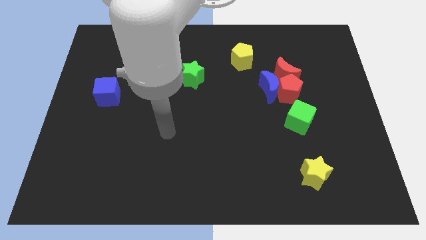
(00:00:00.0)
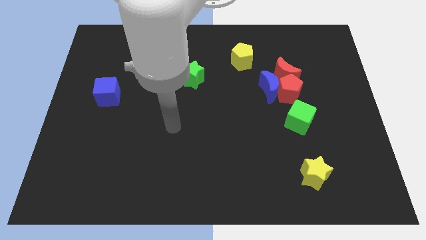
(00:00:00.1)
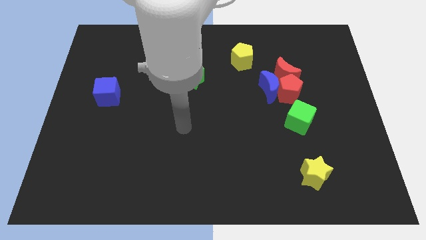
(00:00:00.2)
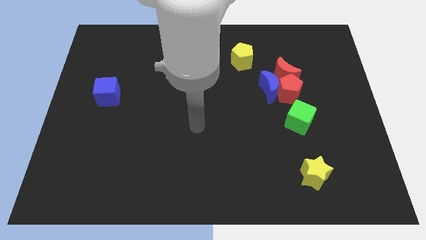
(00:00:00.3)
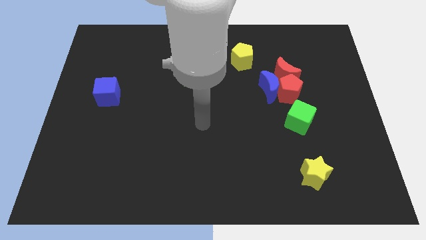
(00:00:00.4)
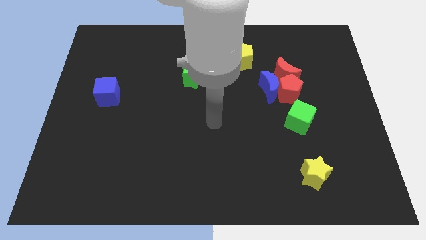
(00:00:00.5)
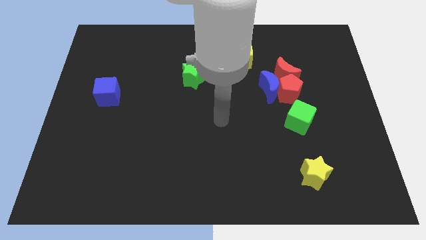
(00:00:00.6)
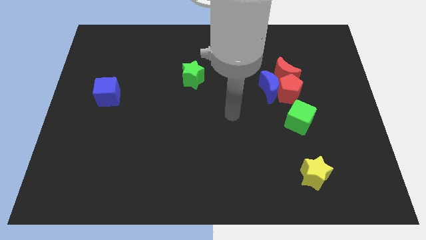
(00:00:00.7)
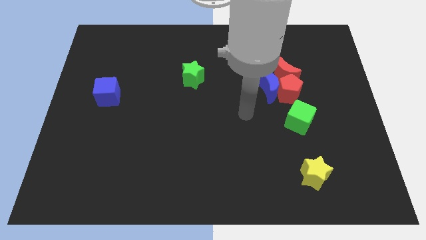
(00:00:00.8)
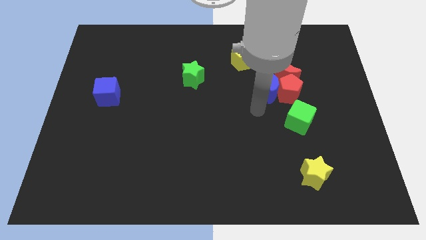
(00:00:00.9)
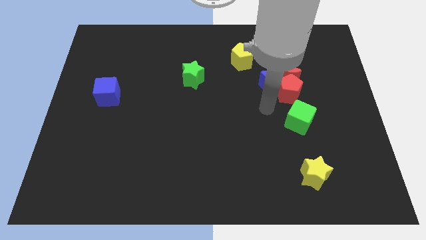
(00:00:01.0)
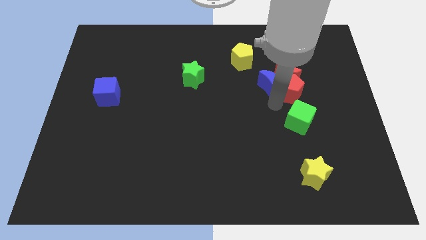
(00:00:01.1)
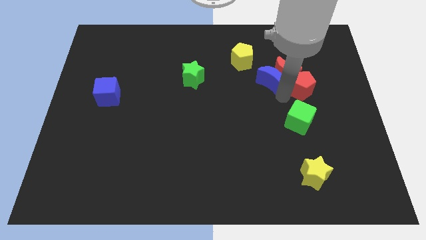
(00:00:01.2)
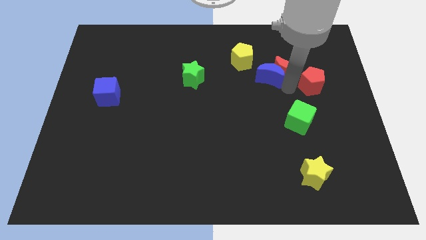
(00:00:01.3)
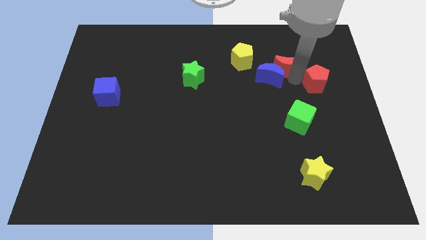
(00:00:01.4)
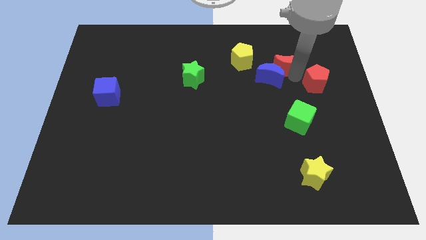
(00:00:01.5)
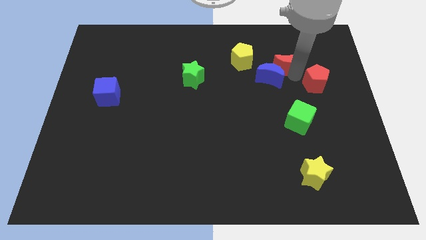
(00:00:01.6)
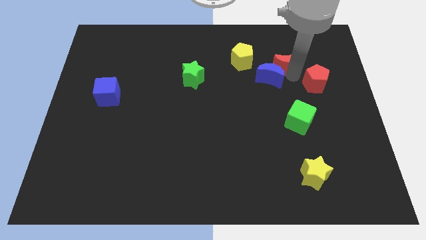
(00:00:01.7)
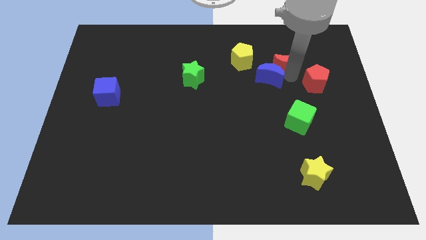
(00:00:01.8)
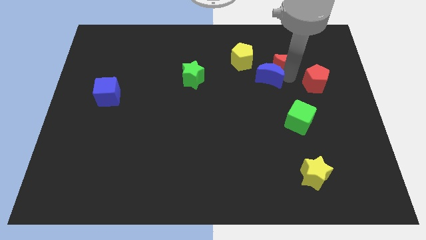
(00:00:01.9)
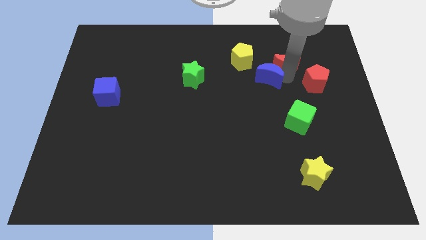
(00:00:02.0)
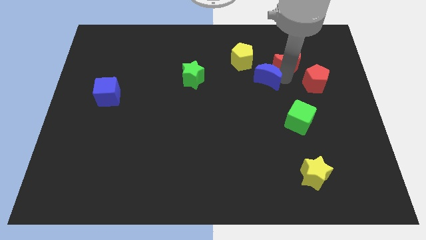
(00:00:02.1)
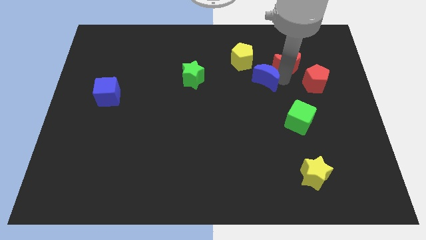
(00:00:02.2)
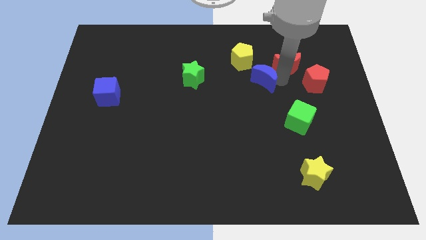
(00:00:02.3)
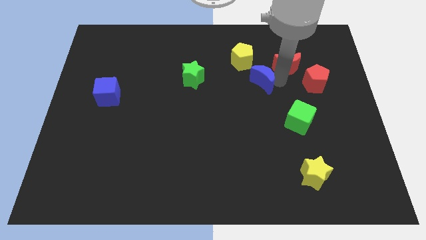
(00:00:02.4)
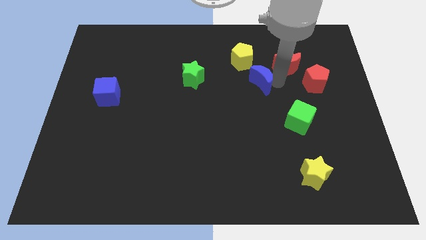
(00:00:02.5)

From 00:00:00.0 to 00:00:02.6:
pull the blue moon apart from the red pentagon and red moon

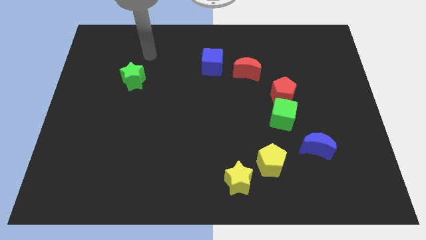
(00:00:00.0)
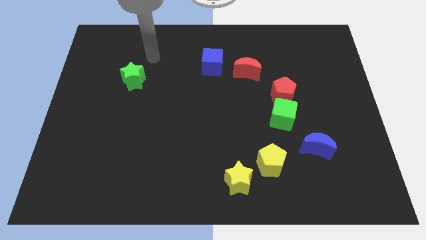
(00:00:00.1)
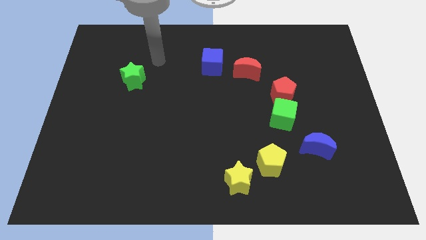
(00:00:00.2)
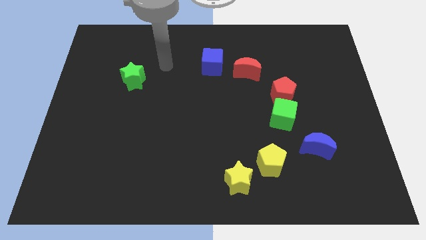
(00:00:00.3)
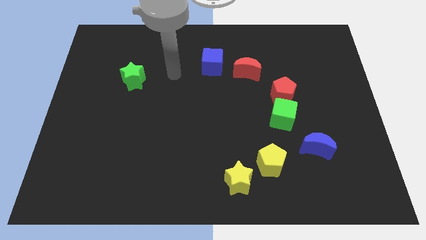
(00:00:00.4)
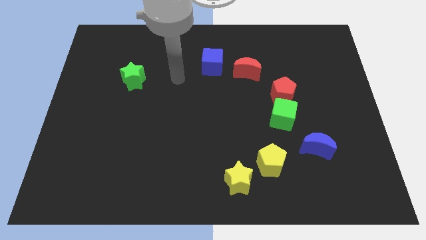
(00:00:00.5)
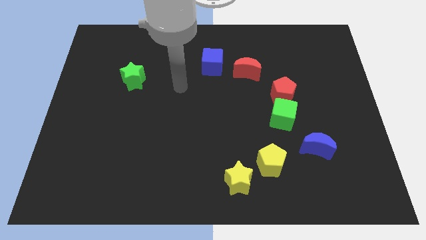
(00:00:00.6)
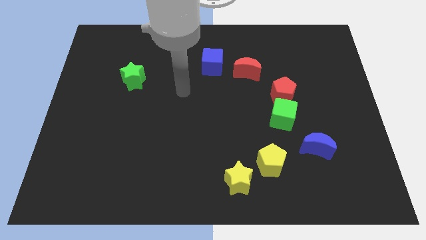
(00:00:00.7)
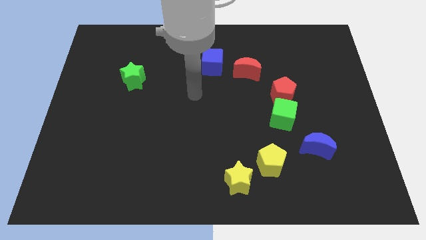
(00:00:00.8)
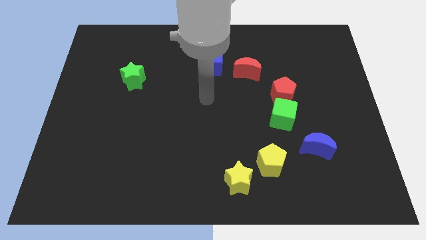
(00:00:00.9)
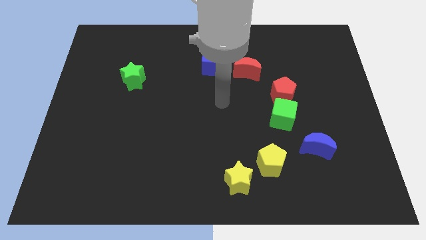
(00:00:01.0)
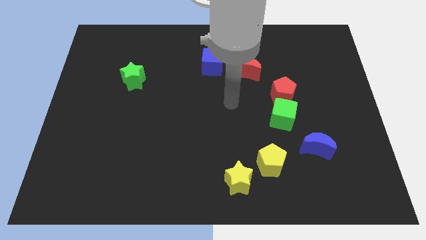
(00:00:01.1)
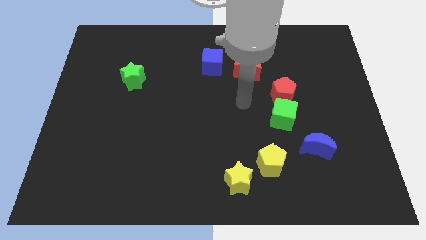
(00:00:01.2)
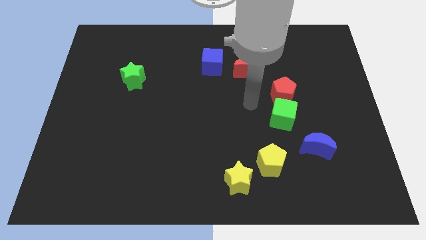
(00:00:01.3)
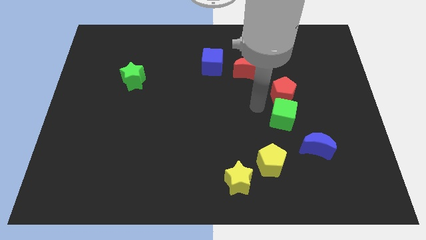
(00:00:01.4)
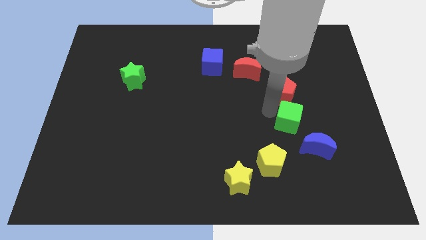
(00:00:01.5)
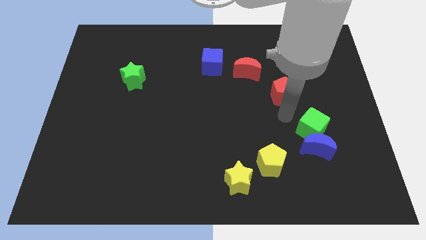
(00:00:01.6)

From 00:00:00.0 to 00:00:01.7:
move the red pentagon away from the green cube

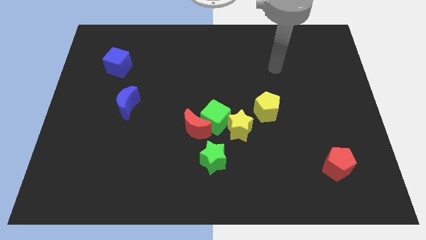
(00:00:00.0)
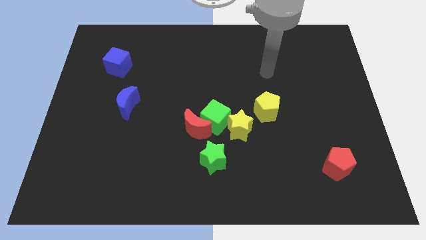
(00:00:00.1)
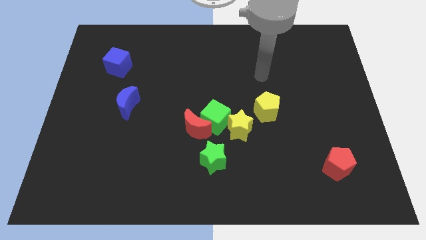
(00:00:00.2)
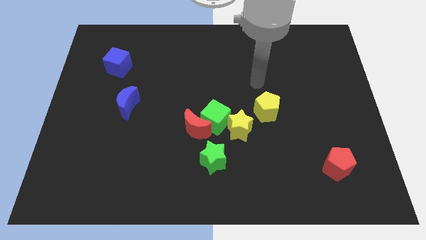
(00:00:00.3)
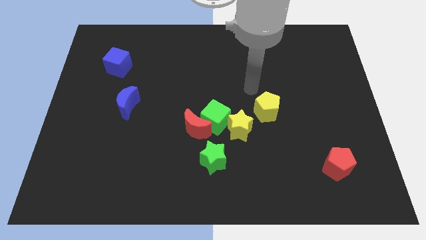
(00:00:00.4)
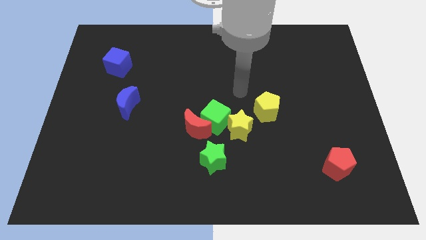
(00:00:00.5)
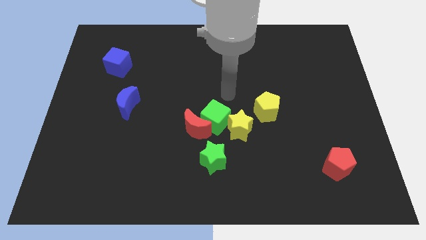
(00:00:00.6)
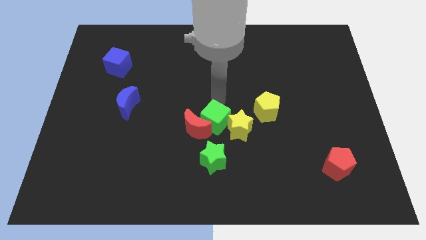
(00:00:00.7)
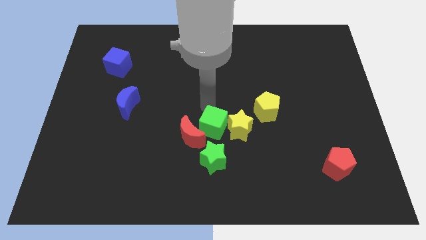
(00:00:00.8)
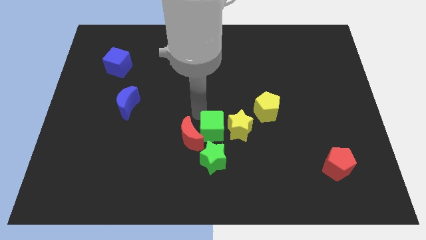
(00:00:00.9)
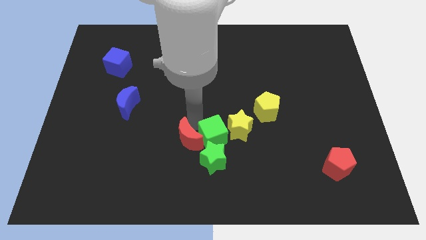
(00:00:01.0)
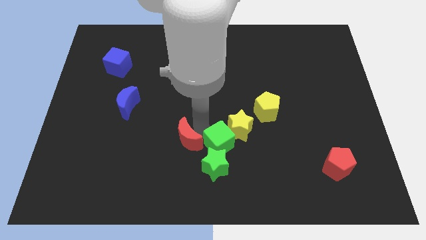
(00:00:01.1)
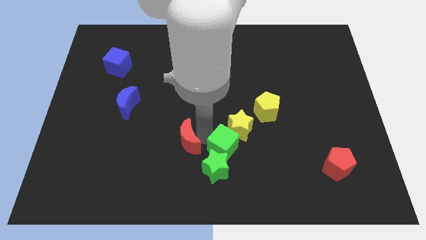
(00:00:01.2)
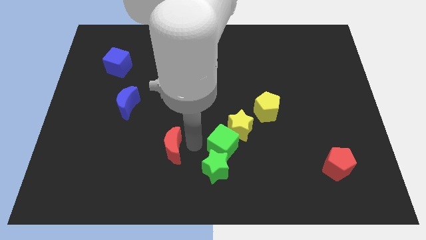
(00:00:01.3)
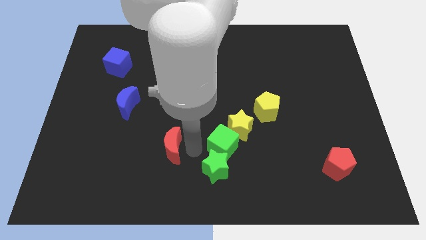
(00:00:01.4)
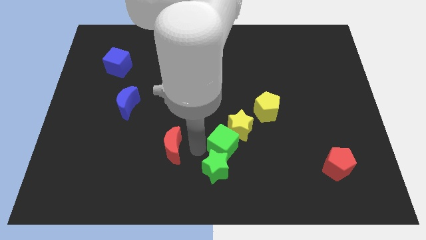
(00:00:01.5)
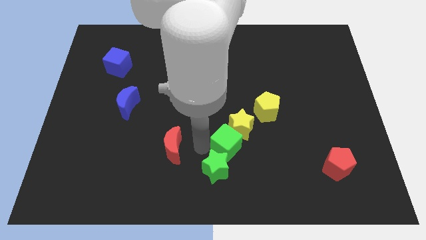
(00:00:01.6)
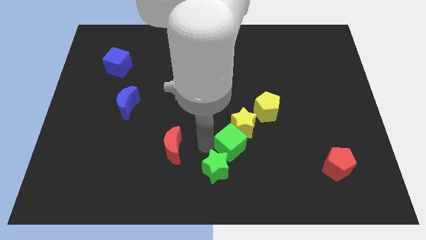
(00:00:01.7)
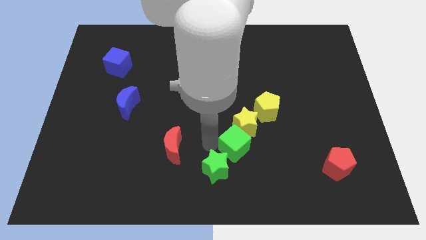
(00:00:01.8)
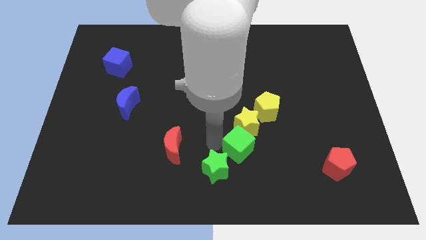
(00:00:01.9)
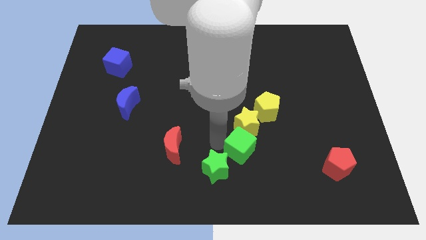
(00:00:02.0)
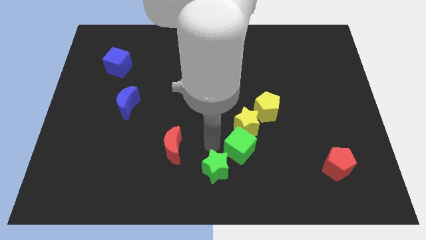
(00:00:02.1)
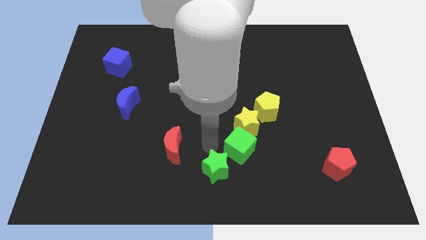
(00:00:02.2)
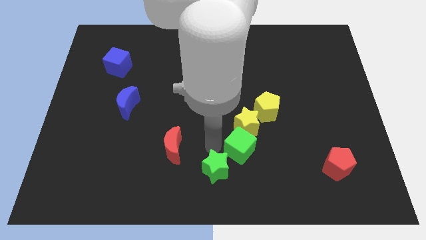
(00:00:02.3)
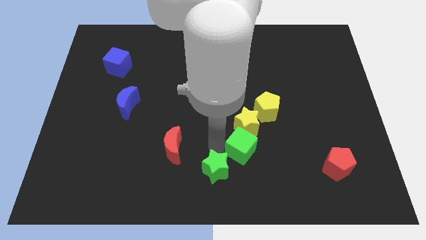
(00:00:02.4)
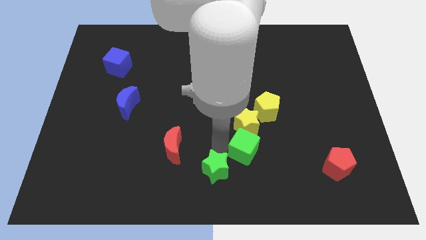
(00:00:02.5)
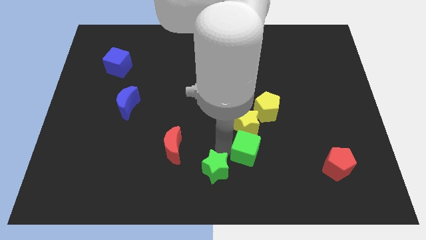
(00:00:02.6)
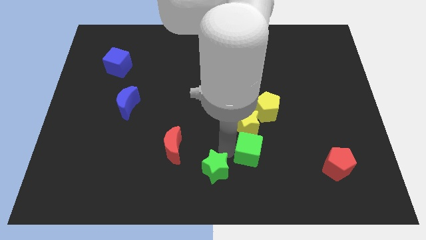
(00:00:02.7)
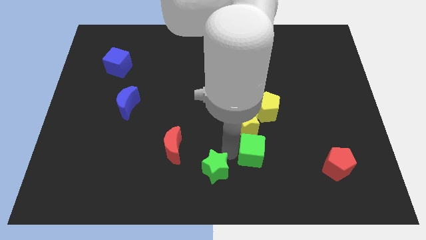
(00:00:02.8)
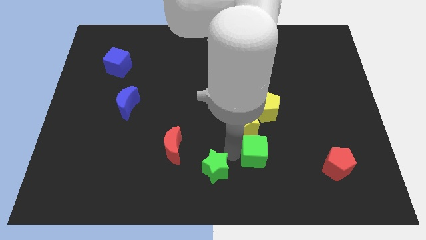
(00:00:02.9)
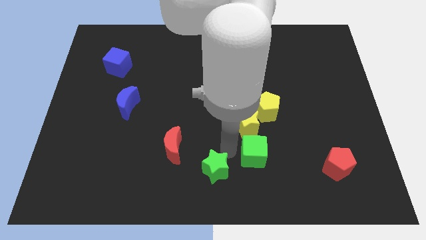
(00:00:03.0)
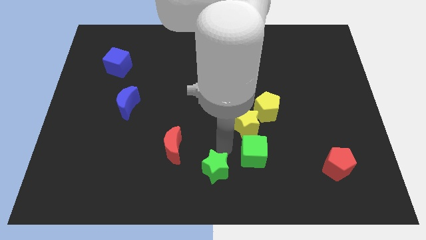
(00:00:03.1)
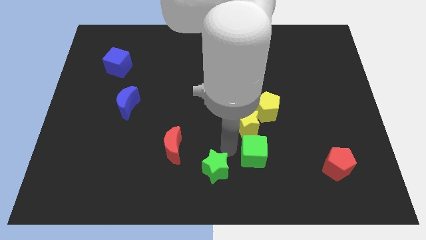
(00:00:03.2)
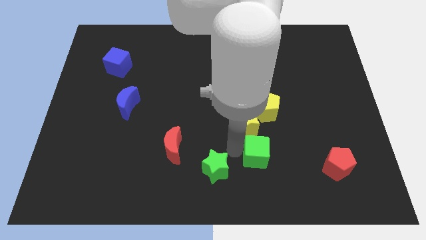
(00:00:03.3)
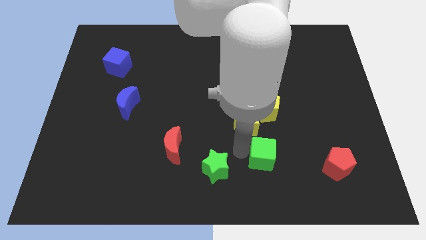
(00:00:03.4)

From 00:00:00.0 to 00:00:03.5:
separate the green cube from the red moon, yellow star, and green star

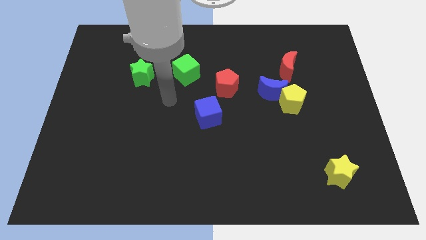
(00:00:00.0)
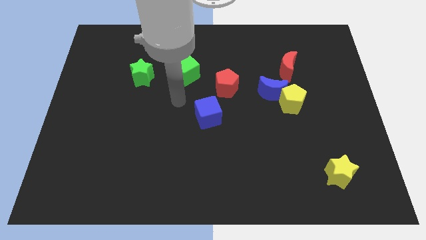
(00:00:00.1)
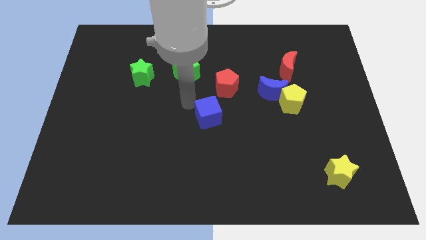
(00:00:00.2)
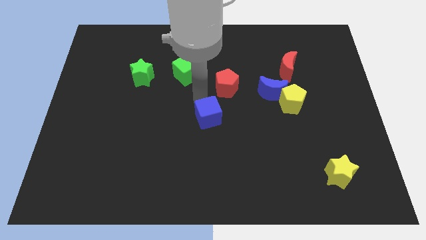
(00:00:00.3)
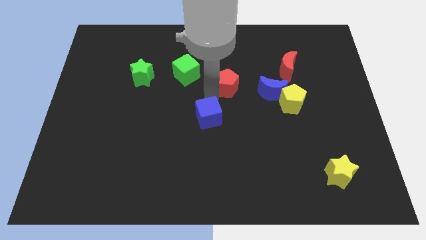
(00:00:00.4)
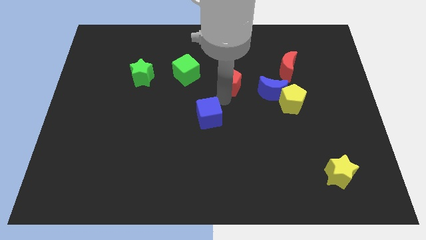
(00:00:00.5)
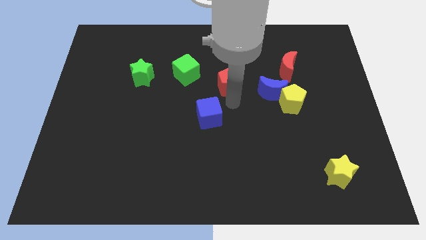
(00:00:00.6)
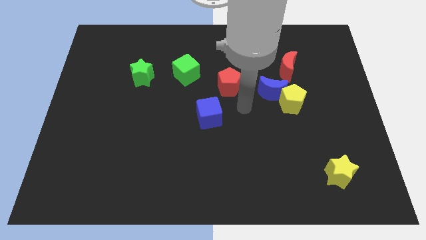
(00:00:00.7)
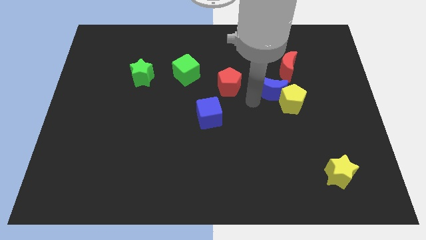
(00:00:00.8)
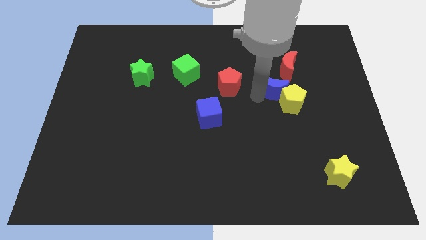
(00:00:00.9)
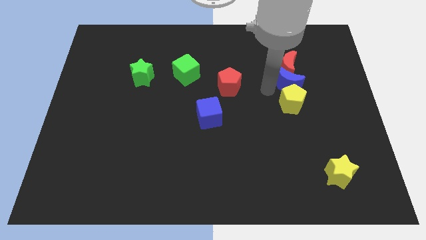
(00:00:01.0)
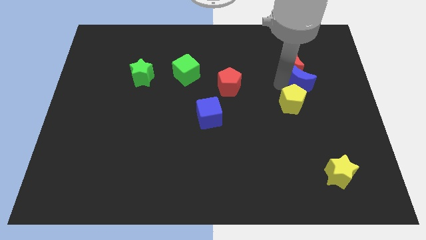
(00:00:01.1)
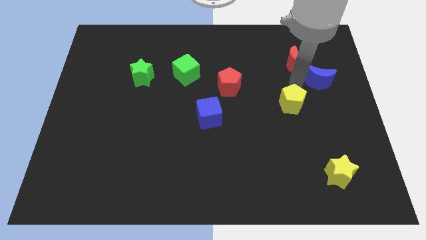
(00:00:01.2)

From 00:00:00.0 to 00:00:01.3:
separate the yellow pentagon from the blue moon

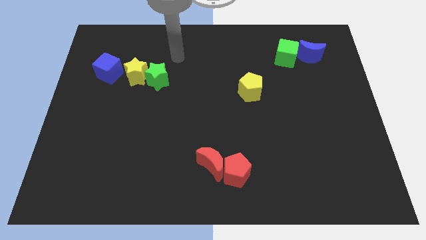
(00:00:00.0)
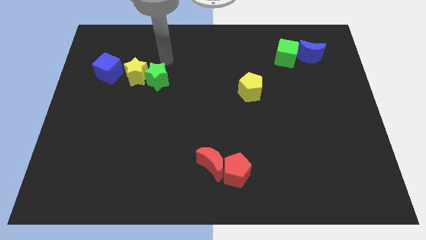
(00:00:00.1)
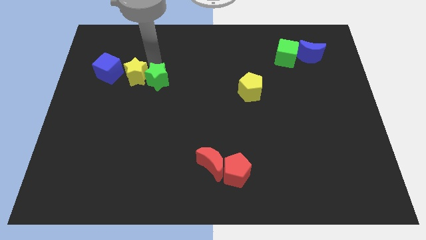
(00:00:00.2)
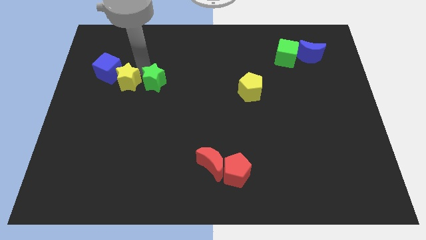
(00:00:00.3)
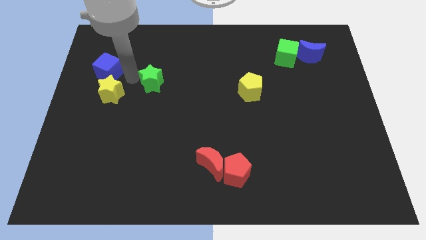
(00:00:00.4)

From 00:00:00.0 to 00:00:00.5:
pull the green star apart from the yellow star
